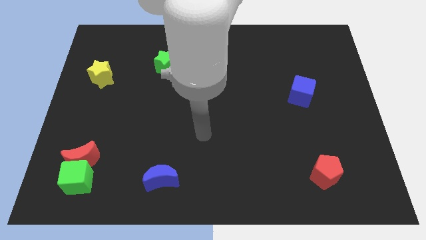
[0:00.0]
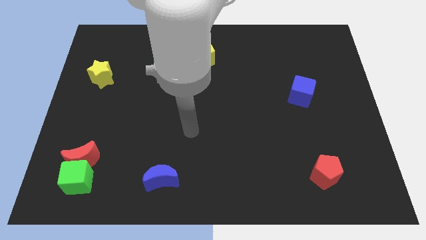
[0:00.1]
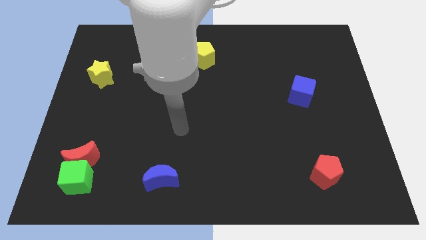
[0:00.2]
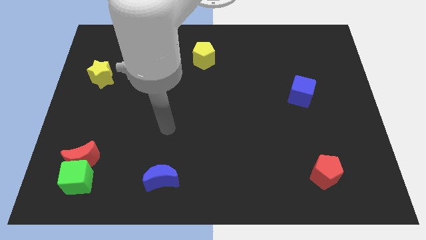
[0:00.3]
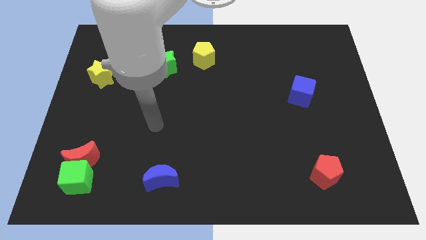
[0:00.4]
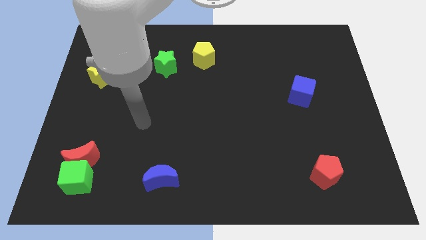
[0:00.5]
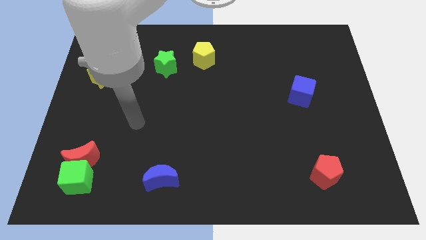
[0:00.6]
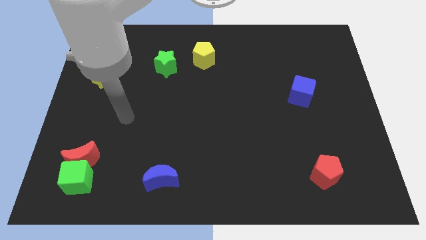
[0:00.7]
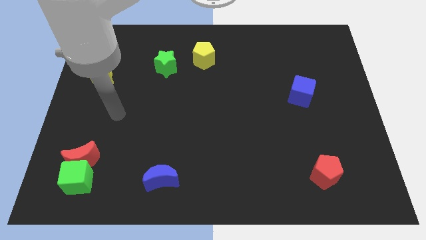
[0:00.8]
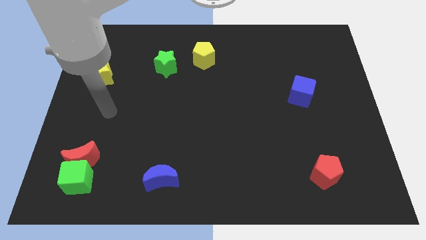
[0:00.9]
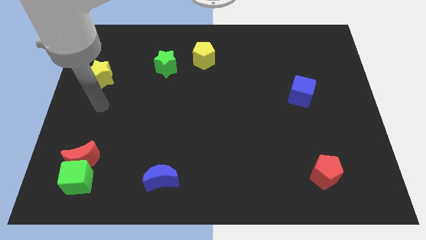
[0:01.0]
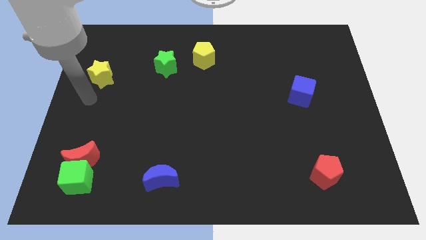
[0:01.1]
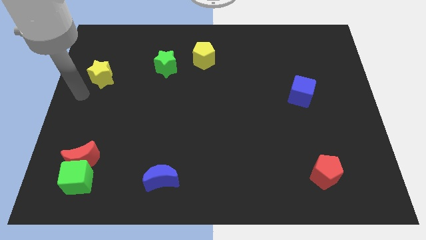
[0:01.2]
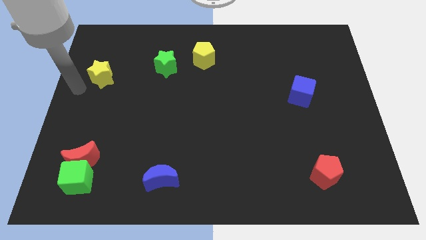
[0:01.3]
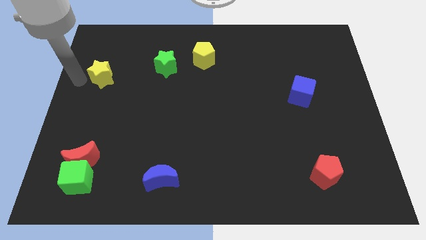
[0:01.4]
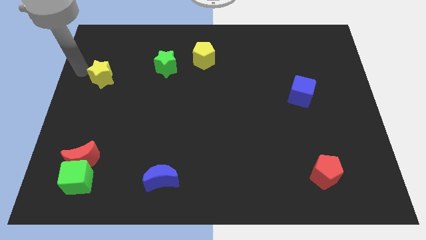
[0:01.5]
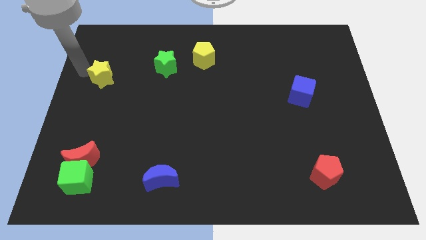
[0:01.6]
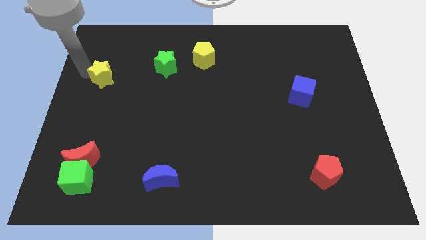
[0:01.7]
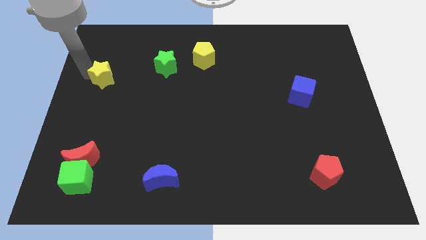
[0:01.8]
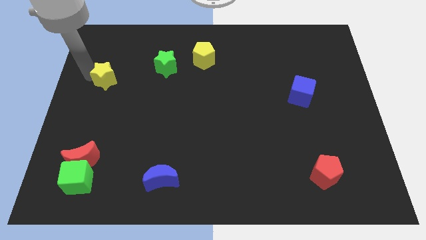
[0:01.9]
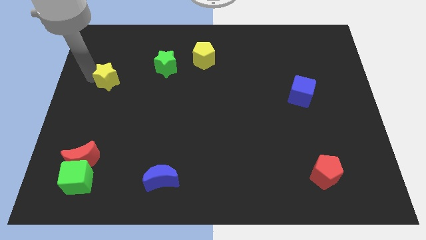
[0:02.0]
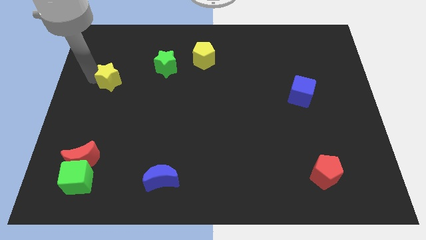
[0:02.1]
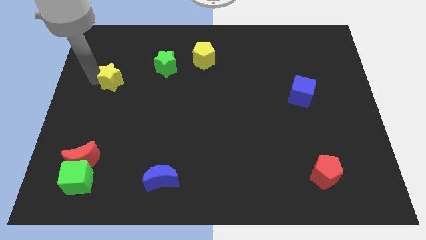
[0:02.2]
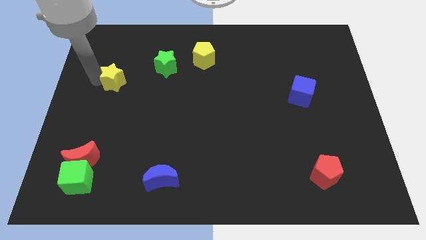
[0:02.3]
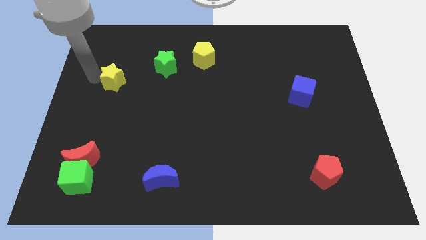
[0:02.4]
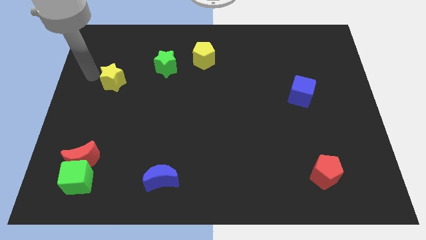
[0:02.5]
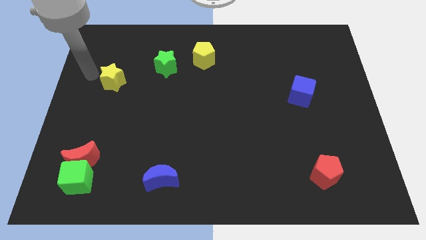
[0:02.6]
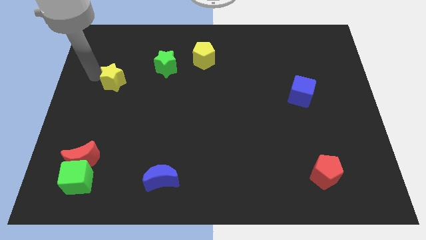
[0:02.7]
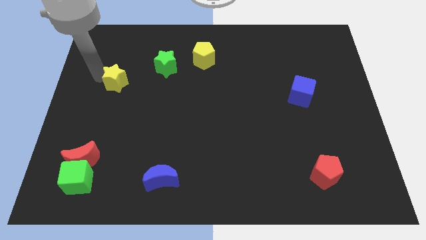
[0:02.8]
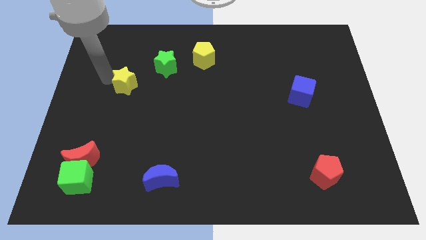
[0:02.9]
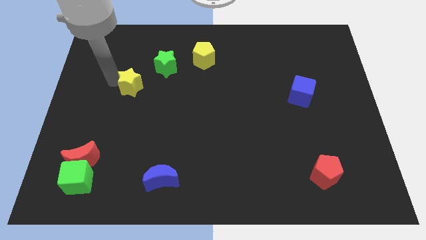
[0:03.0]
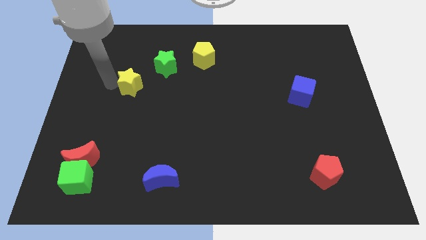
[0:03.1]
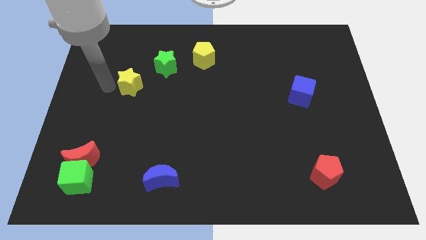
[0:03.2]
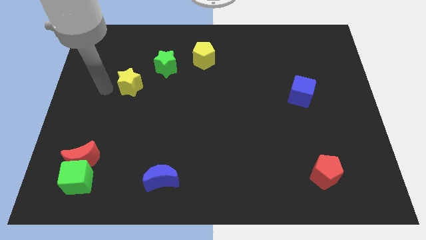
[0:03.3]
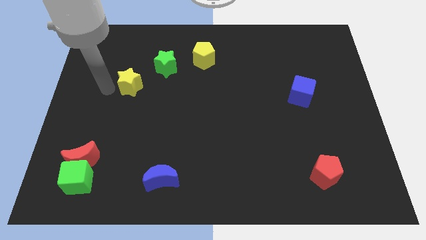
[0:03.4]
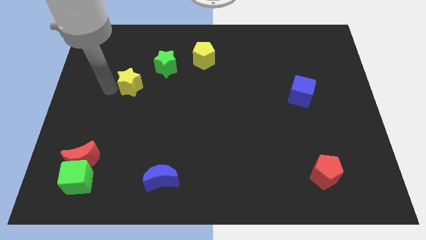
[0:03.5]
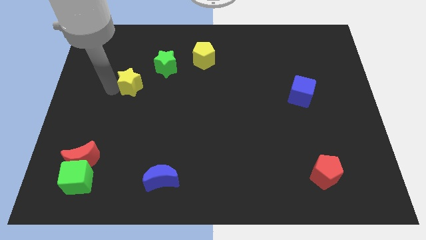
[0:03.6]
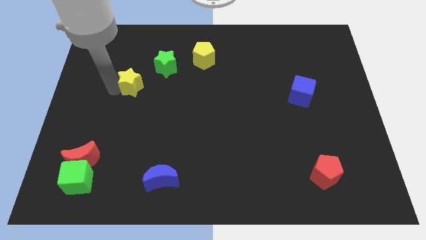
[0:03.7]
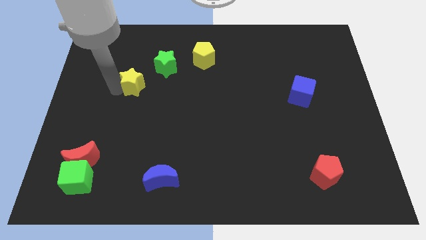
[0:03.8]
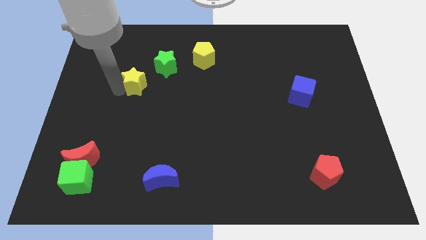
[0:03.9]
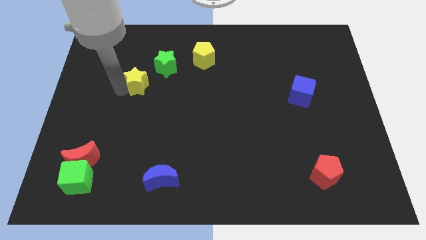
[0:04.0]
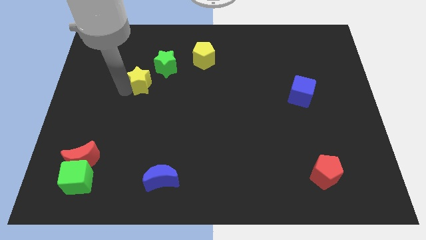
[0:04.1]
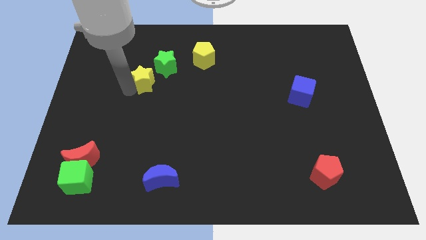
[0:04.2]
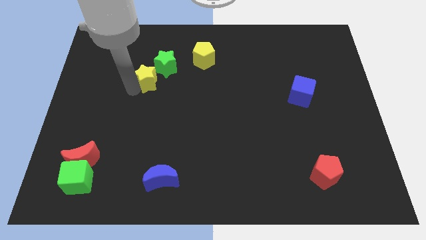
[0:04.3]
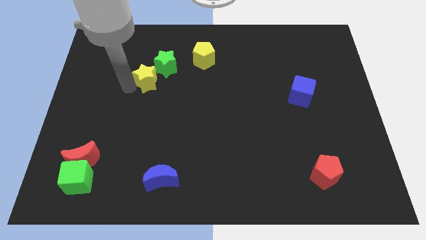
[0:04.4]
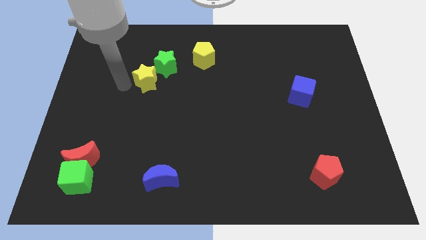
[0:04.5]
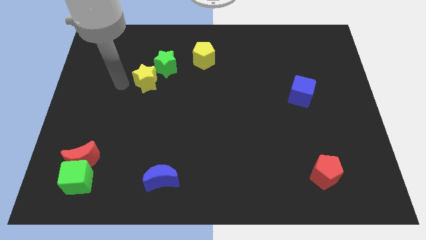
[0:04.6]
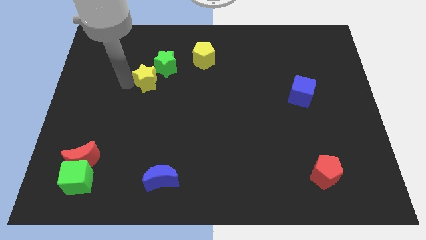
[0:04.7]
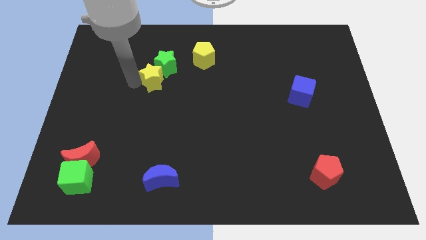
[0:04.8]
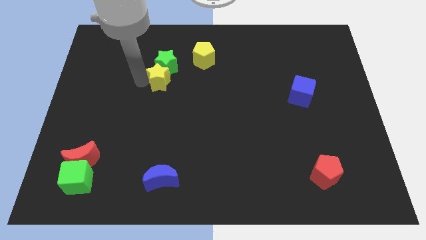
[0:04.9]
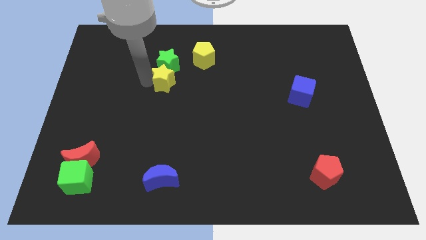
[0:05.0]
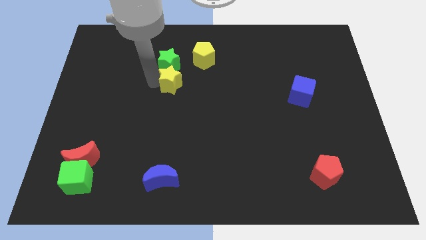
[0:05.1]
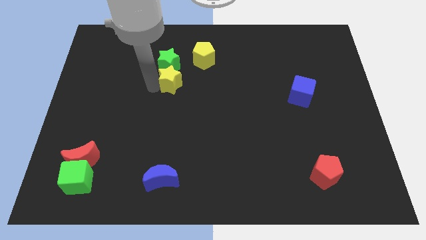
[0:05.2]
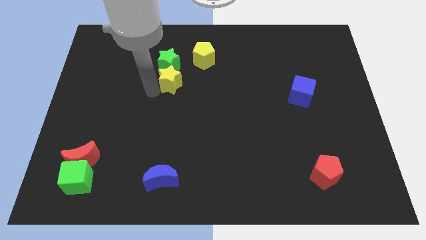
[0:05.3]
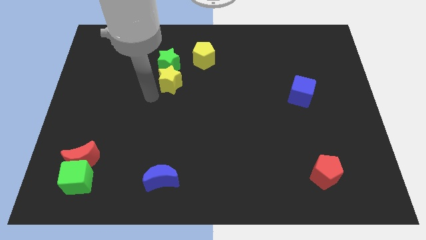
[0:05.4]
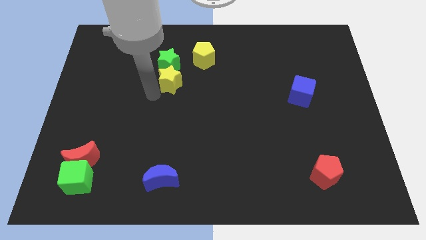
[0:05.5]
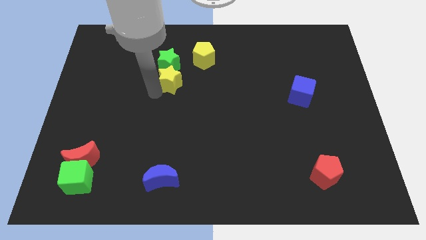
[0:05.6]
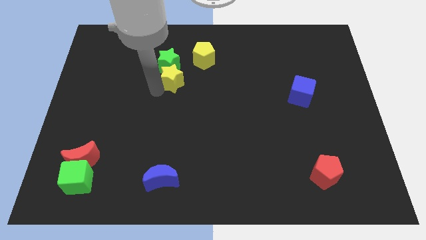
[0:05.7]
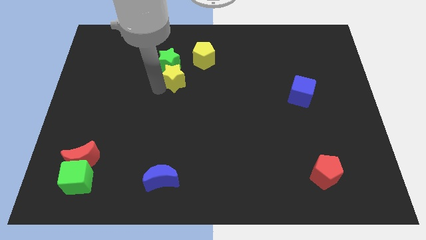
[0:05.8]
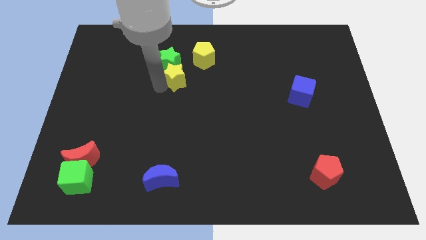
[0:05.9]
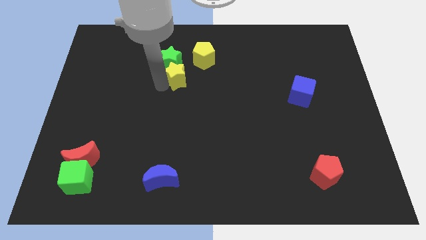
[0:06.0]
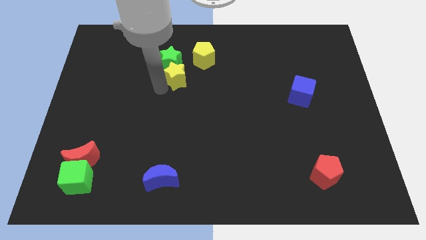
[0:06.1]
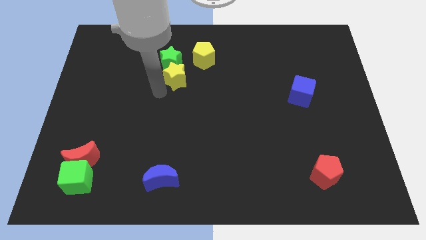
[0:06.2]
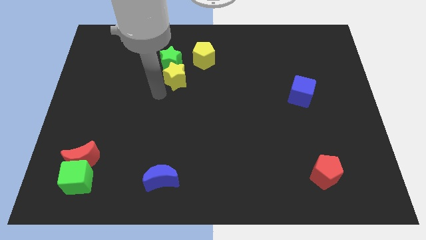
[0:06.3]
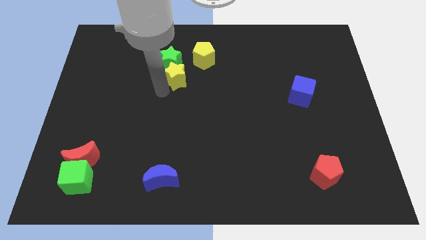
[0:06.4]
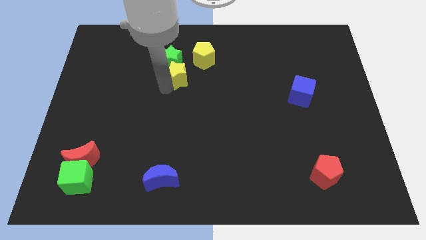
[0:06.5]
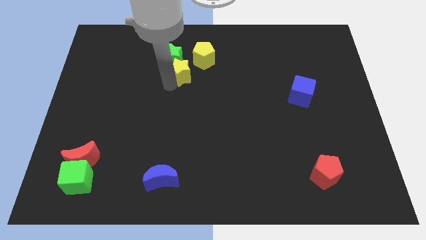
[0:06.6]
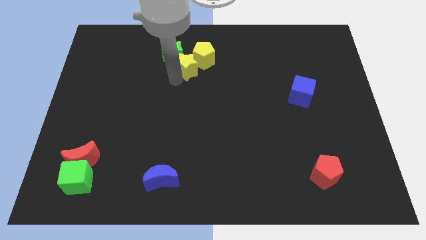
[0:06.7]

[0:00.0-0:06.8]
slide the yellow star towards the yellow pentagon

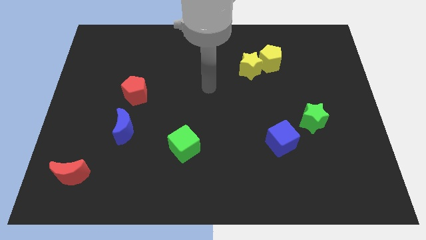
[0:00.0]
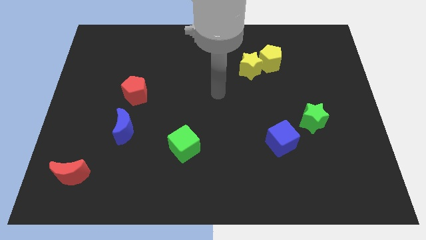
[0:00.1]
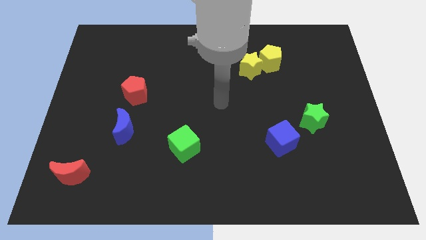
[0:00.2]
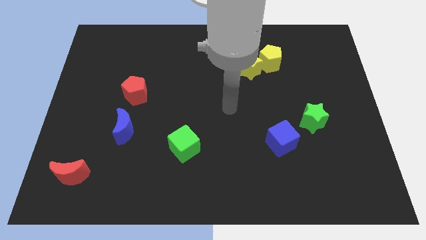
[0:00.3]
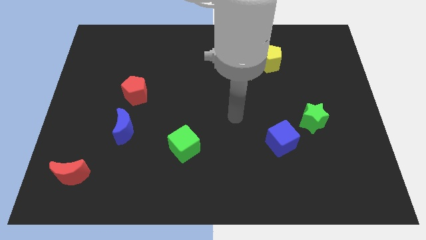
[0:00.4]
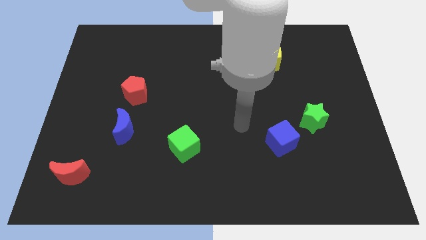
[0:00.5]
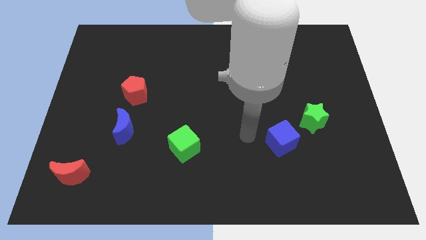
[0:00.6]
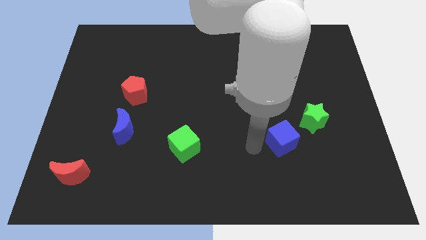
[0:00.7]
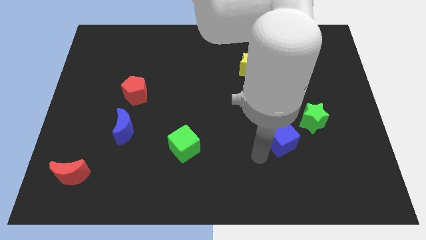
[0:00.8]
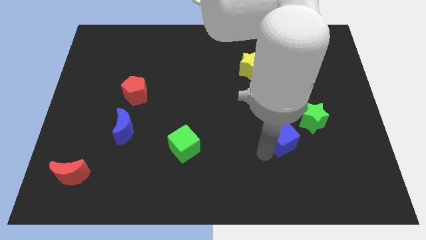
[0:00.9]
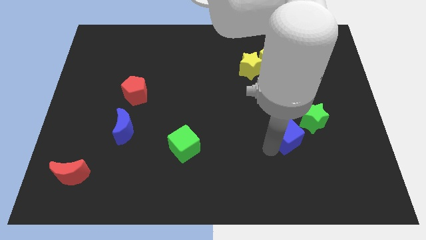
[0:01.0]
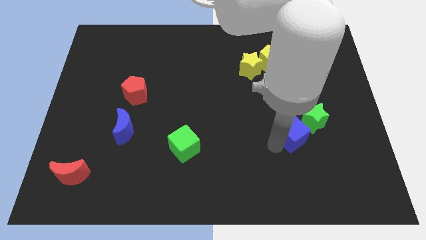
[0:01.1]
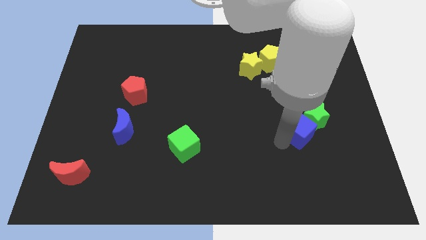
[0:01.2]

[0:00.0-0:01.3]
slide the blue cube to the green star
